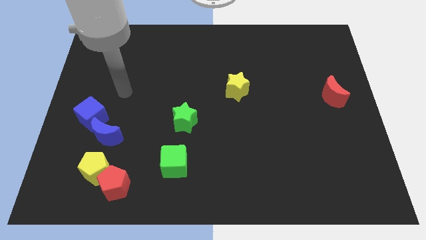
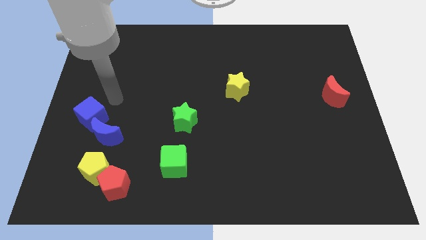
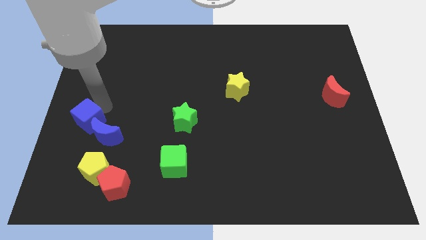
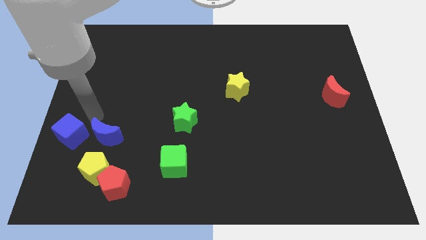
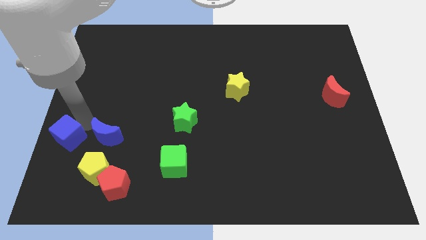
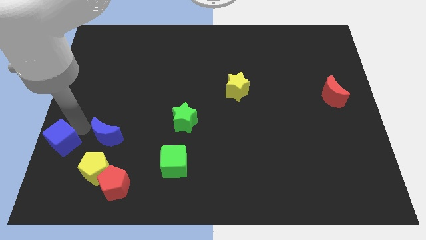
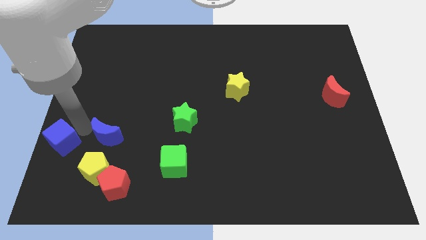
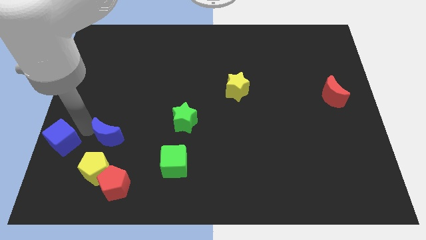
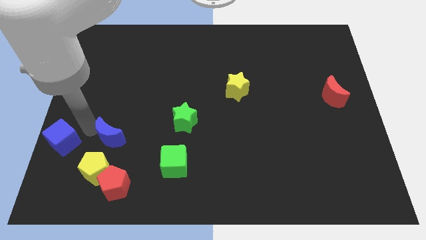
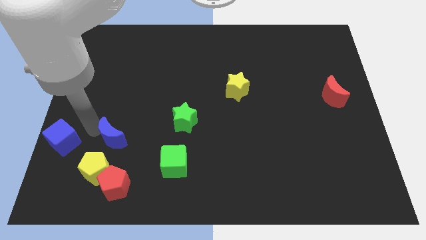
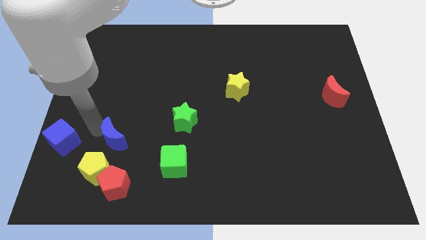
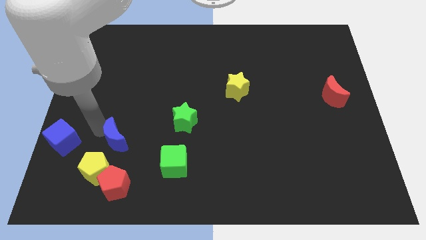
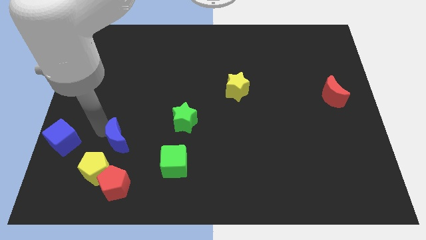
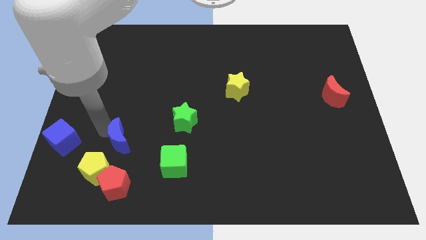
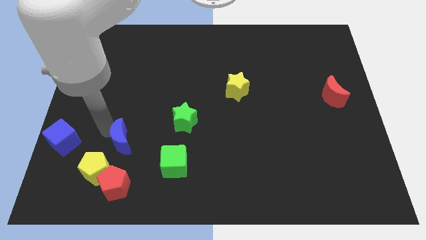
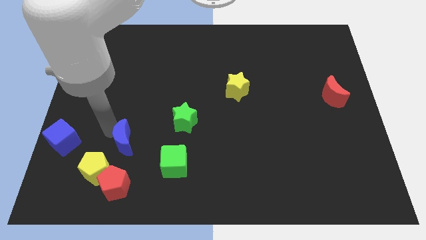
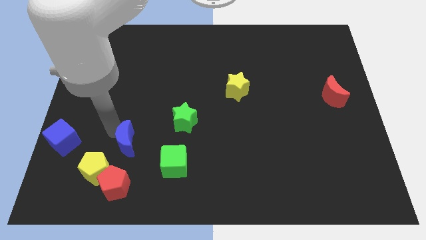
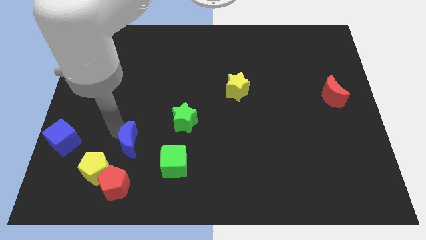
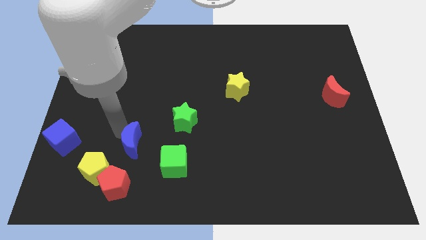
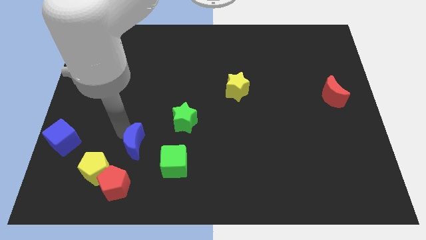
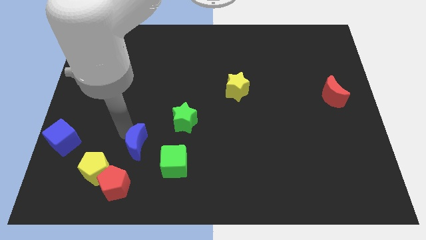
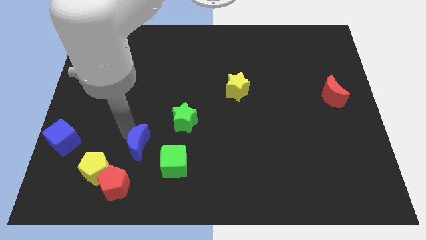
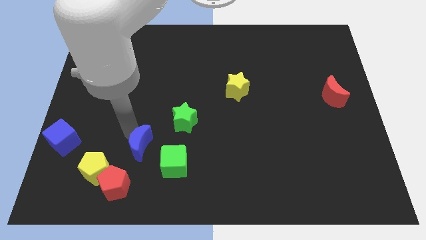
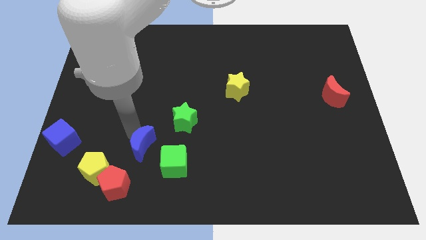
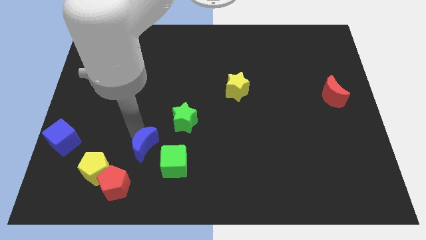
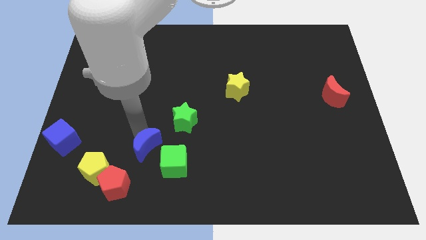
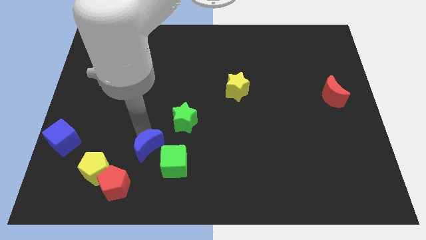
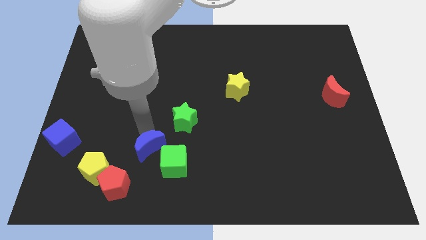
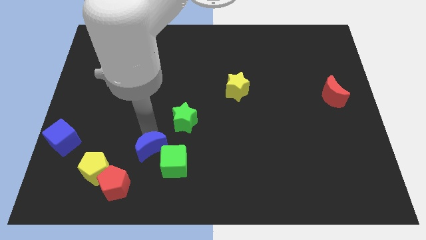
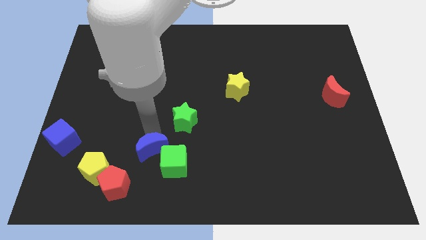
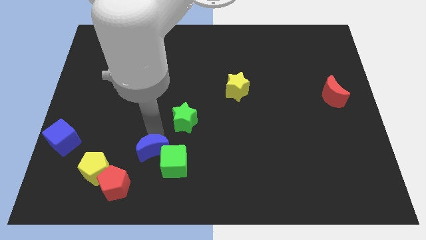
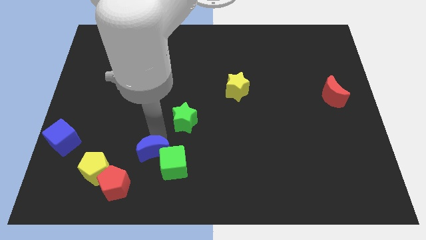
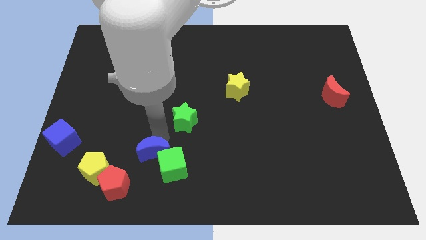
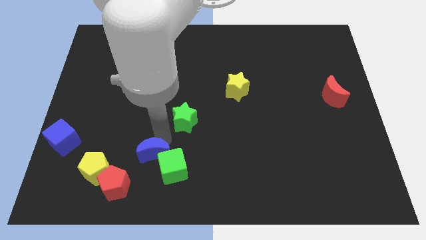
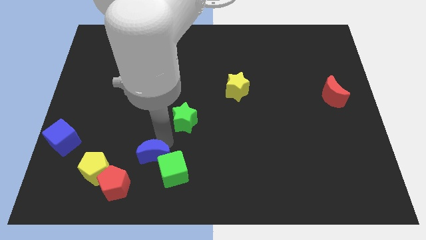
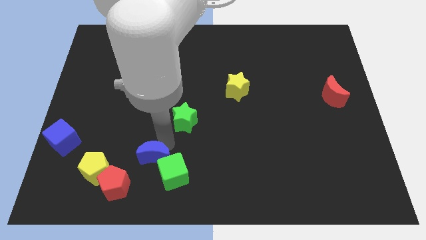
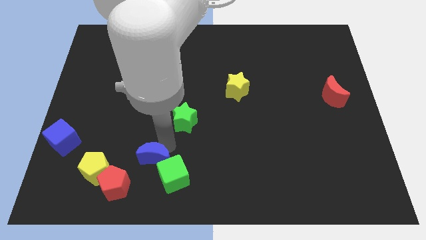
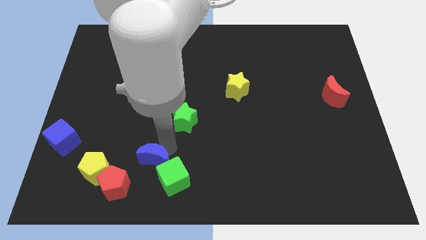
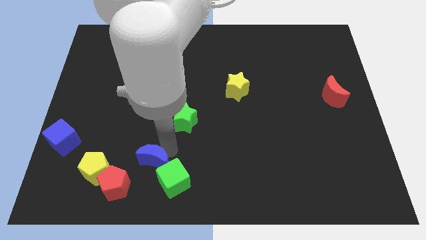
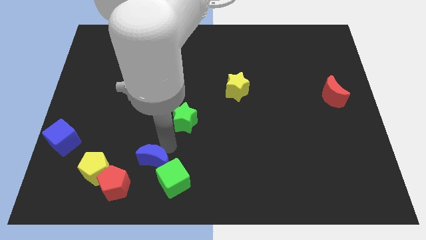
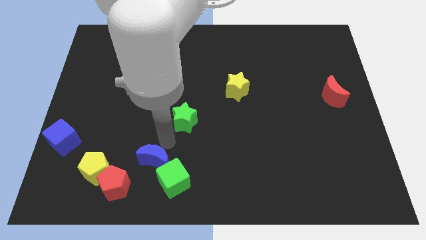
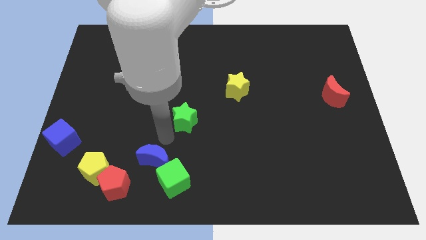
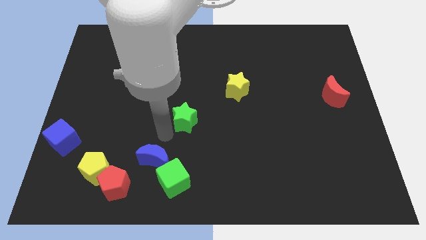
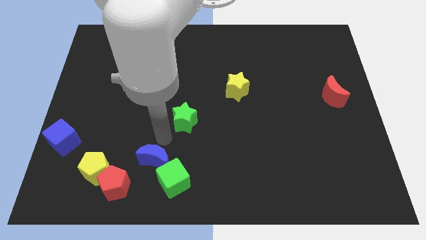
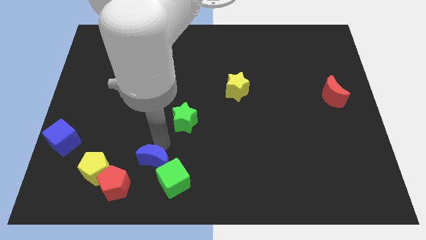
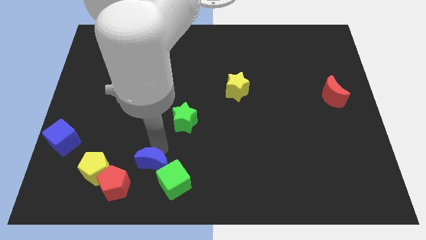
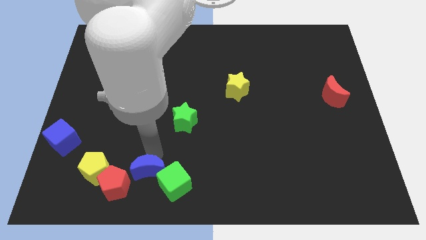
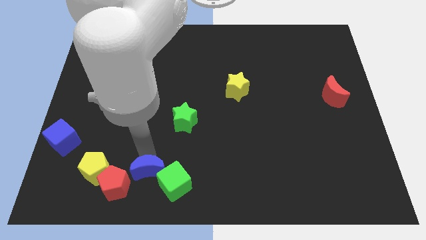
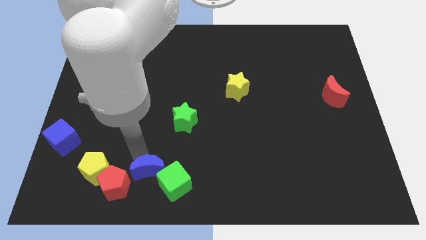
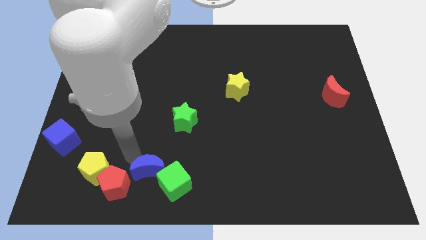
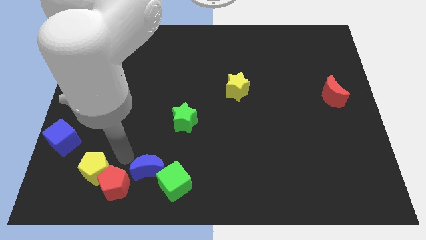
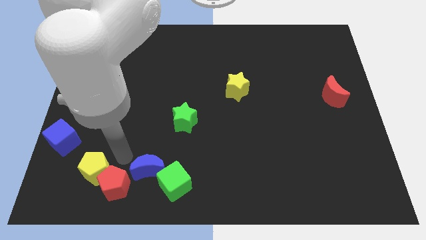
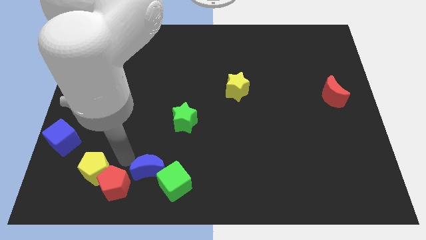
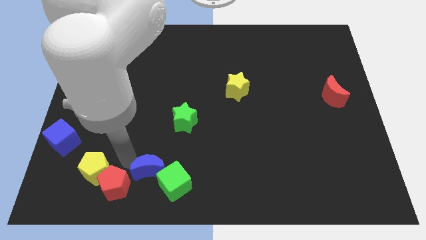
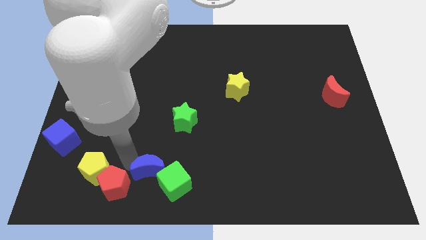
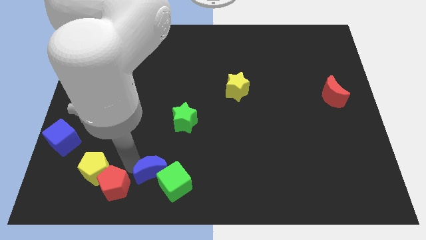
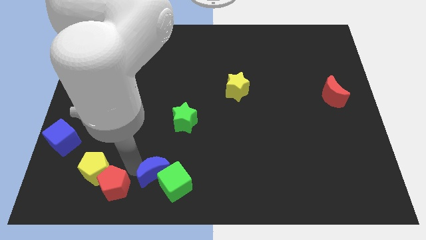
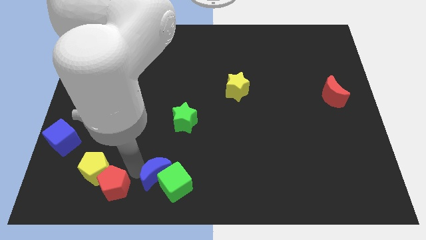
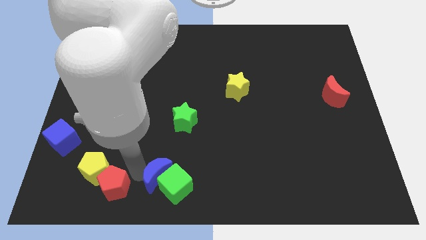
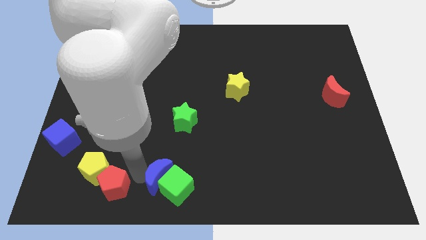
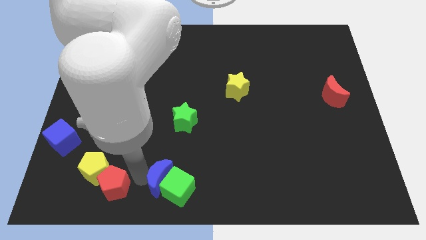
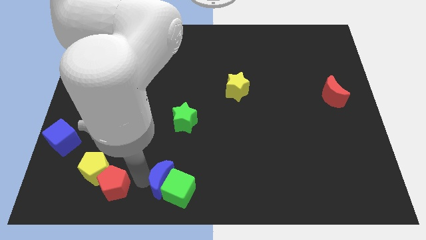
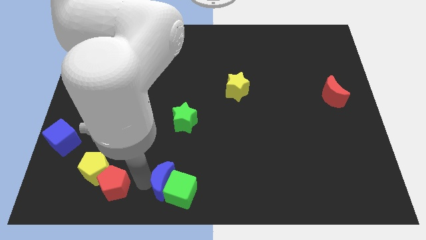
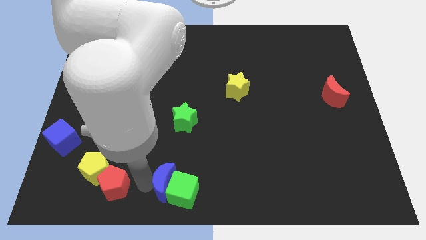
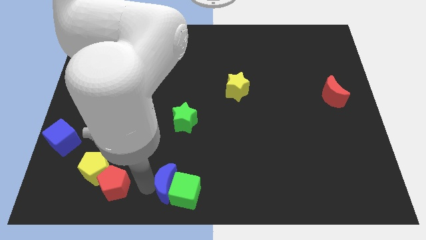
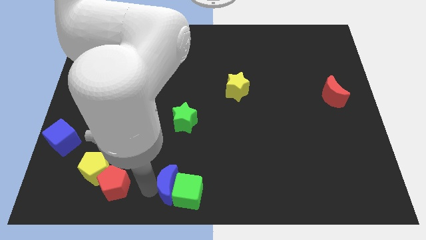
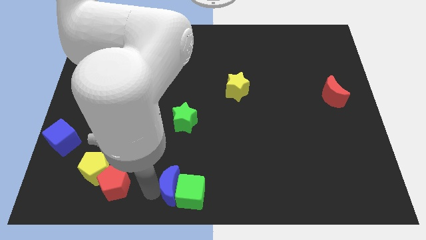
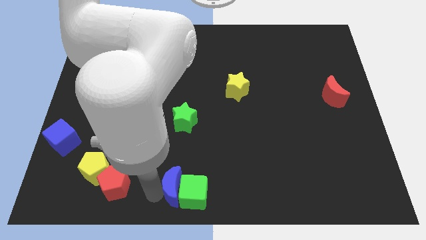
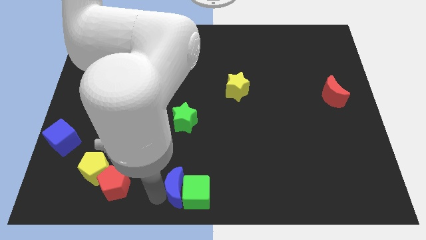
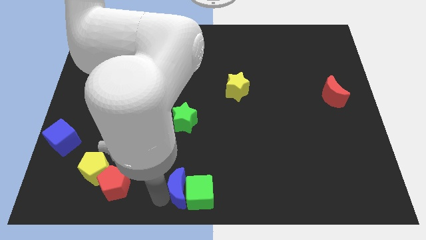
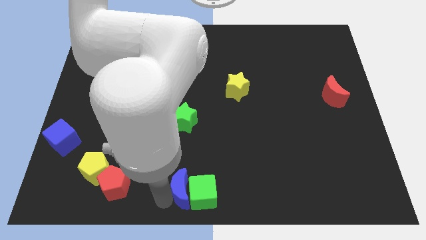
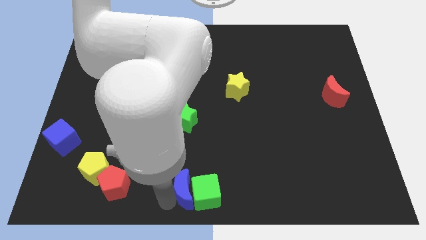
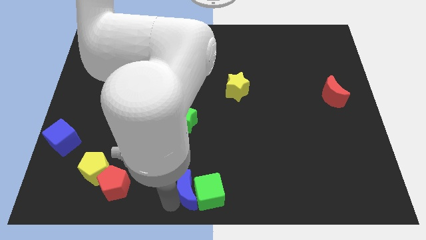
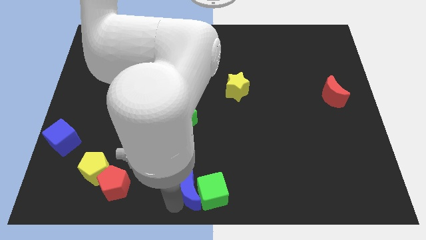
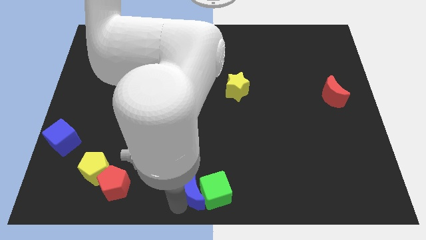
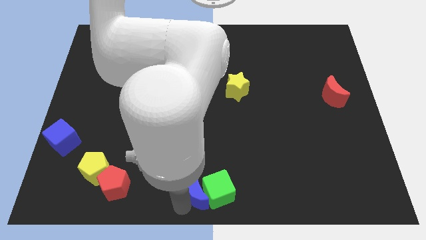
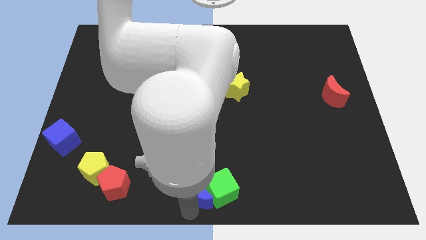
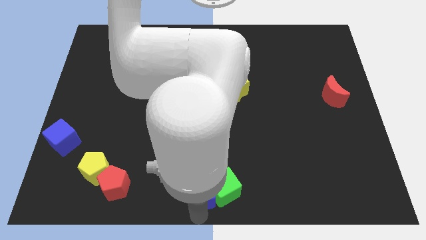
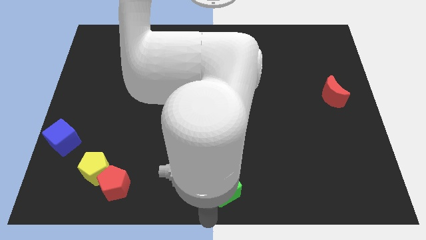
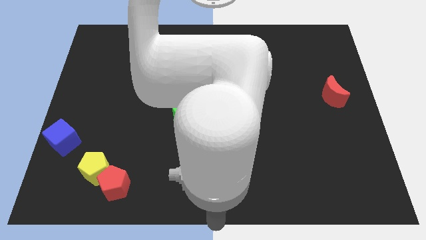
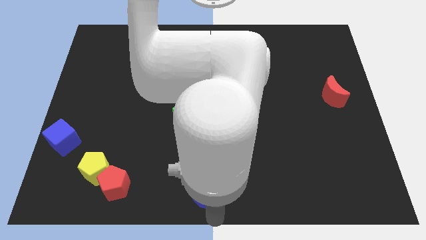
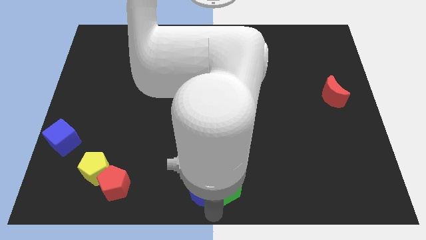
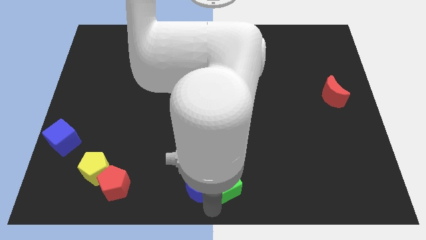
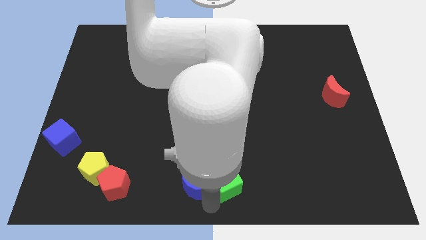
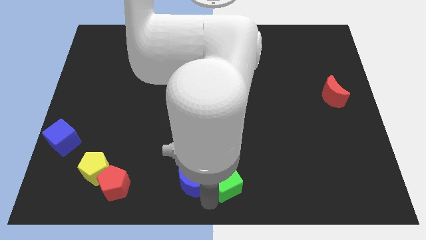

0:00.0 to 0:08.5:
push the blue moon below the green star
